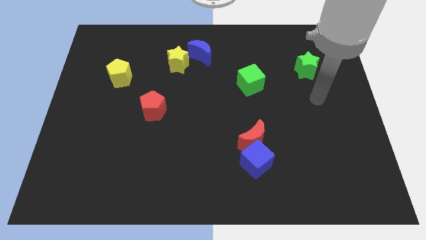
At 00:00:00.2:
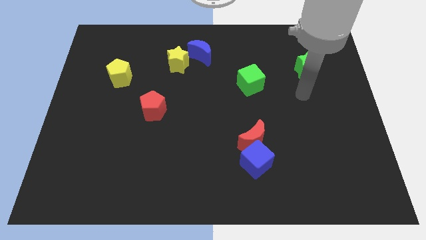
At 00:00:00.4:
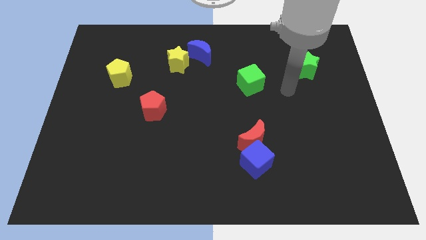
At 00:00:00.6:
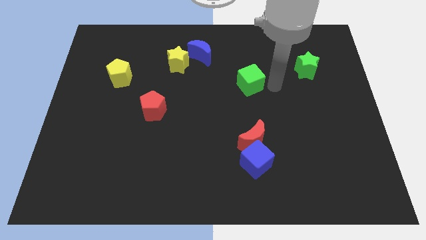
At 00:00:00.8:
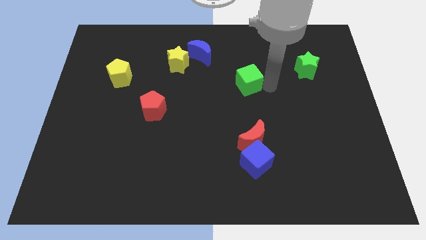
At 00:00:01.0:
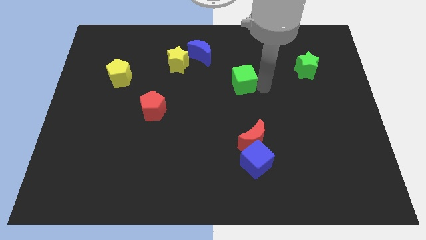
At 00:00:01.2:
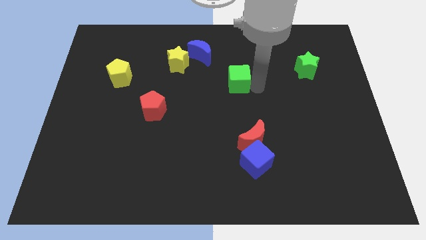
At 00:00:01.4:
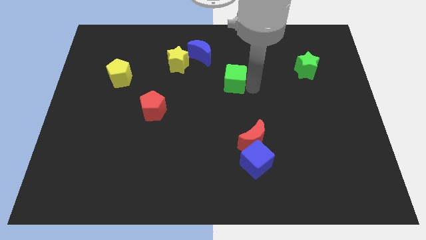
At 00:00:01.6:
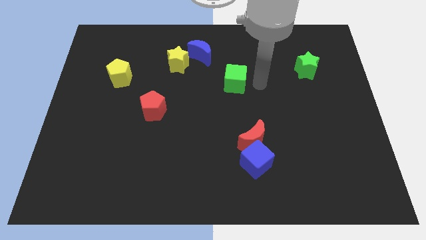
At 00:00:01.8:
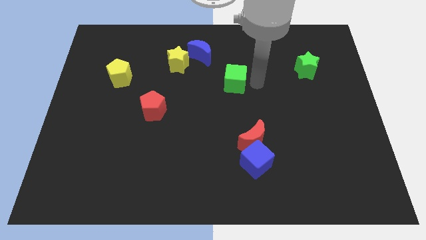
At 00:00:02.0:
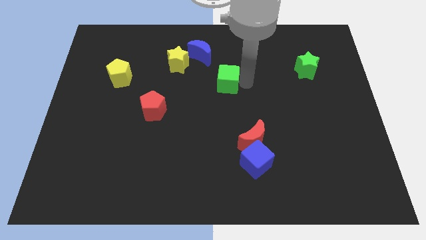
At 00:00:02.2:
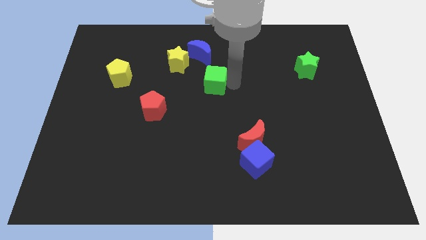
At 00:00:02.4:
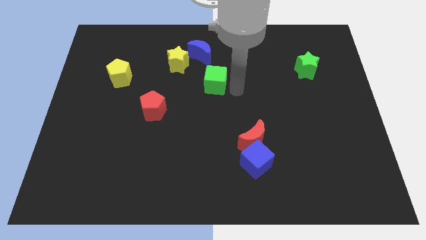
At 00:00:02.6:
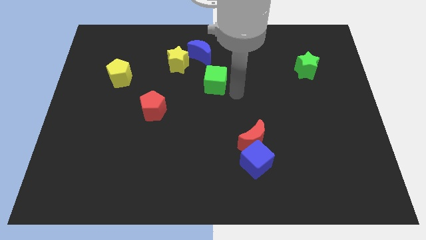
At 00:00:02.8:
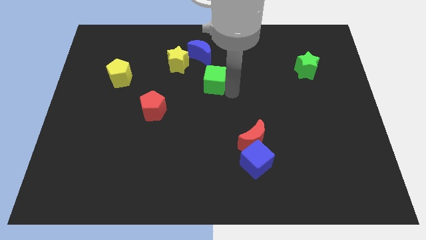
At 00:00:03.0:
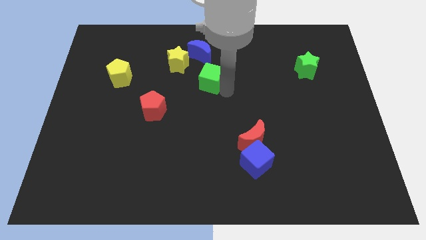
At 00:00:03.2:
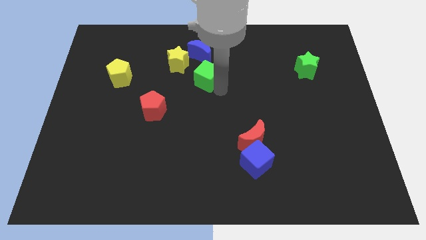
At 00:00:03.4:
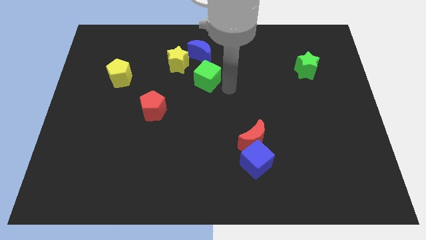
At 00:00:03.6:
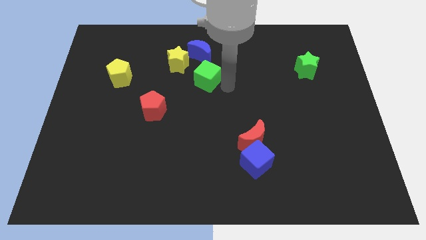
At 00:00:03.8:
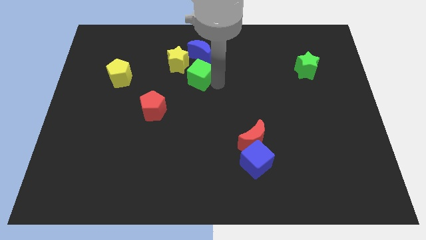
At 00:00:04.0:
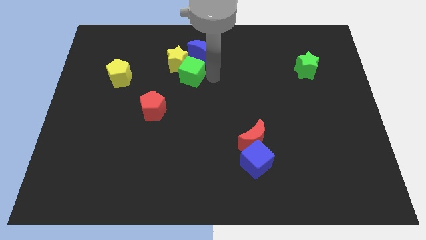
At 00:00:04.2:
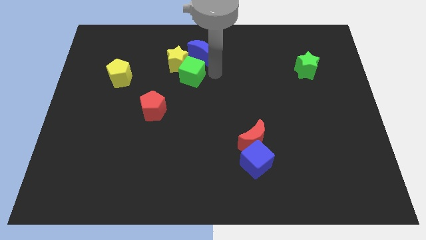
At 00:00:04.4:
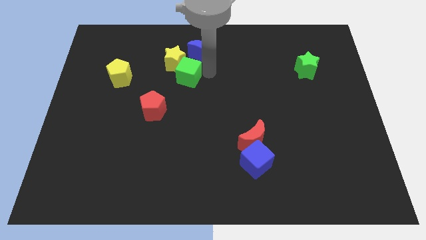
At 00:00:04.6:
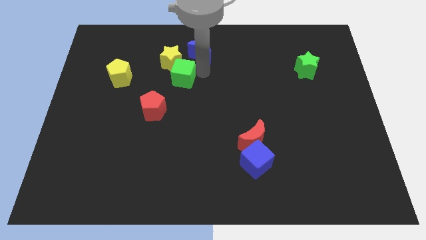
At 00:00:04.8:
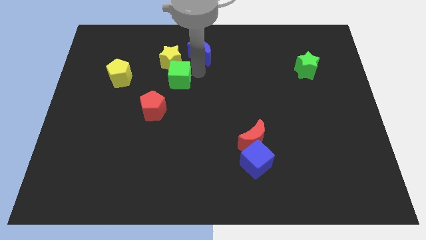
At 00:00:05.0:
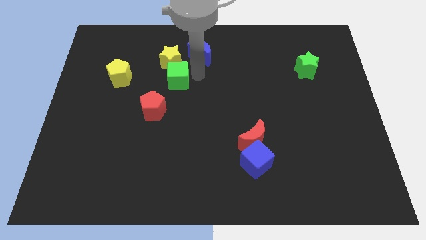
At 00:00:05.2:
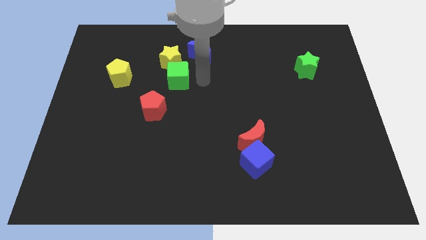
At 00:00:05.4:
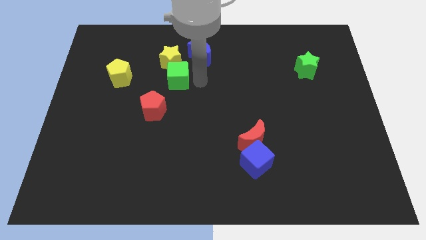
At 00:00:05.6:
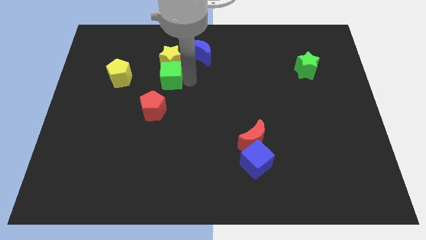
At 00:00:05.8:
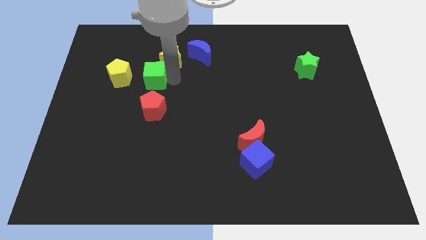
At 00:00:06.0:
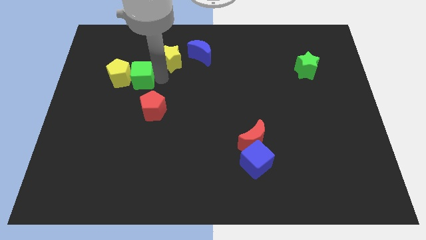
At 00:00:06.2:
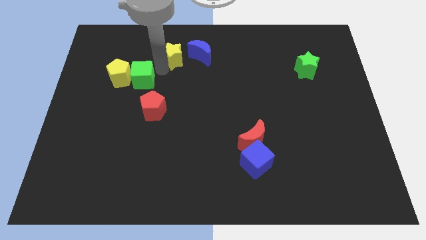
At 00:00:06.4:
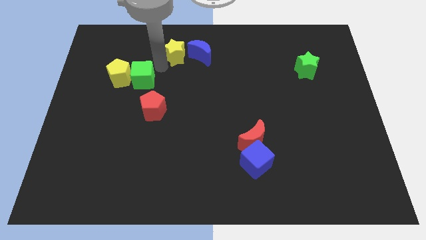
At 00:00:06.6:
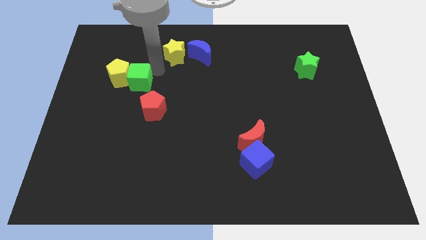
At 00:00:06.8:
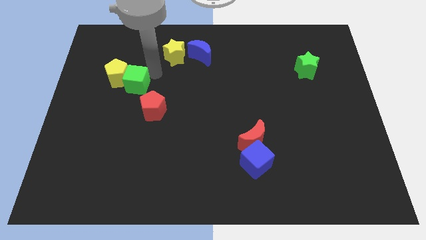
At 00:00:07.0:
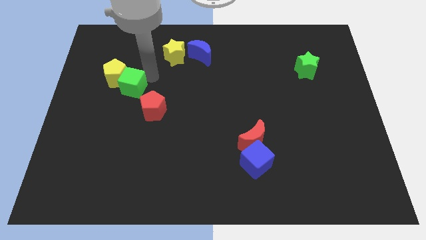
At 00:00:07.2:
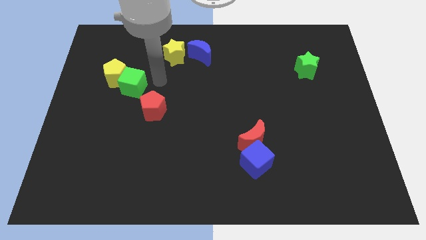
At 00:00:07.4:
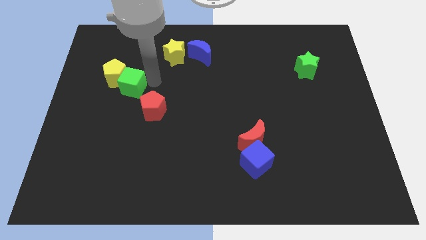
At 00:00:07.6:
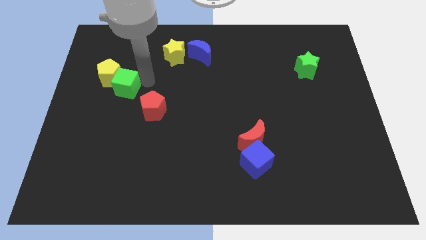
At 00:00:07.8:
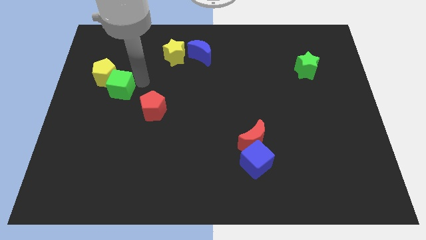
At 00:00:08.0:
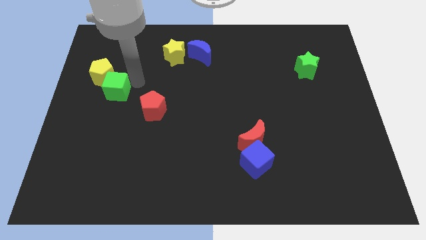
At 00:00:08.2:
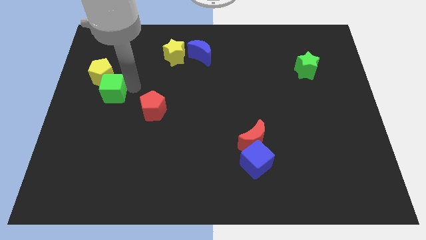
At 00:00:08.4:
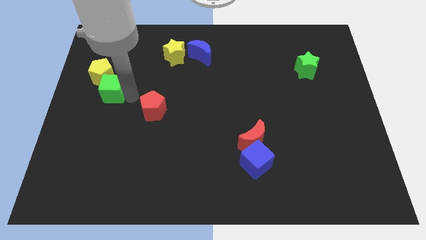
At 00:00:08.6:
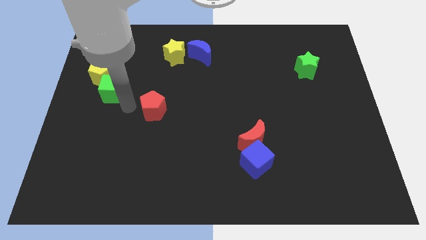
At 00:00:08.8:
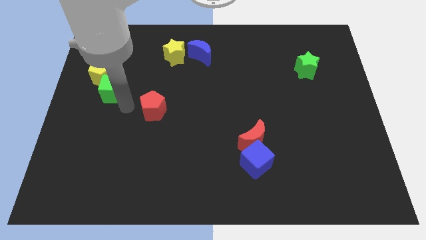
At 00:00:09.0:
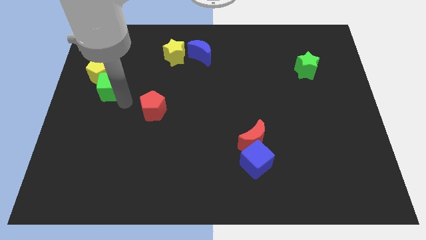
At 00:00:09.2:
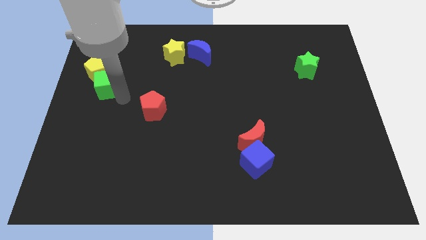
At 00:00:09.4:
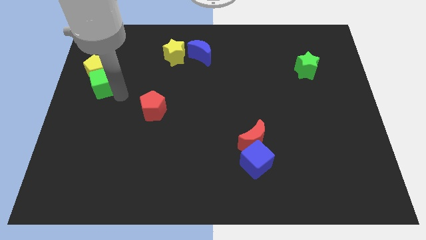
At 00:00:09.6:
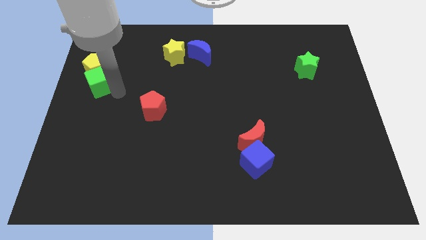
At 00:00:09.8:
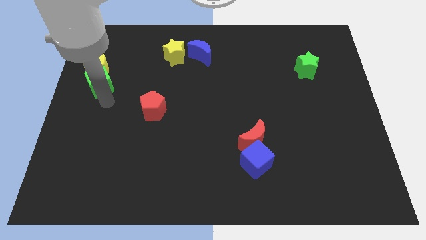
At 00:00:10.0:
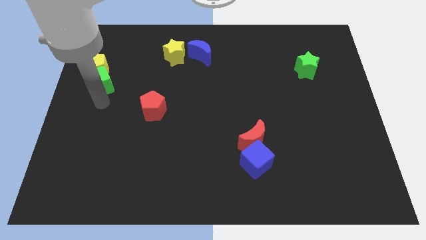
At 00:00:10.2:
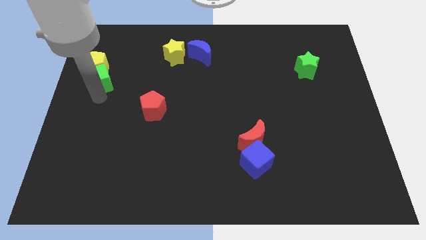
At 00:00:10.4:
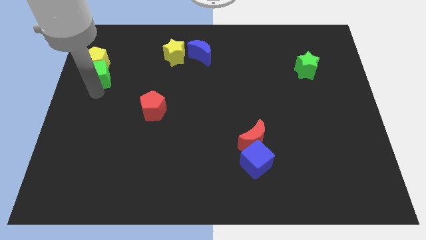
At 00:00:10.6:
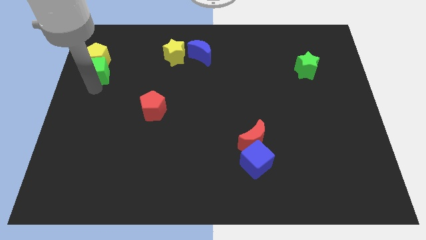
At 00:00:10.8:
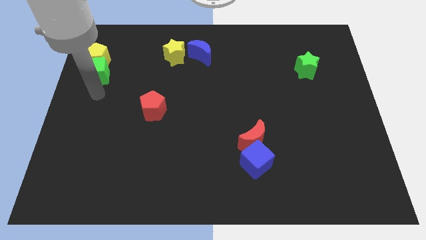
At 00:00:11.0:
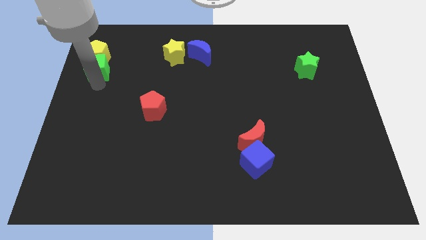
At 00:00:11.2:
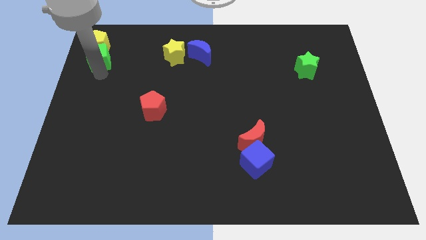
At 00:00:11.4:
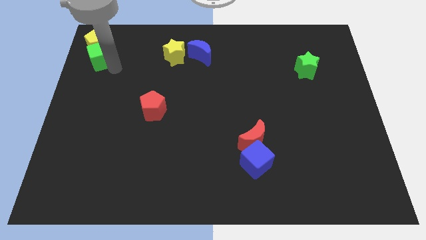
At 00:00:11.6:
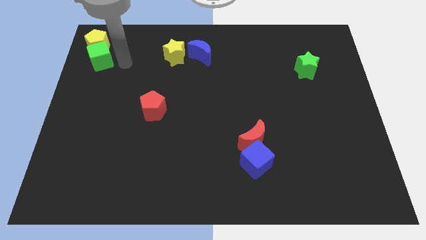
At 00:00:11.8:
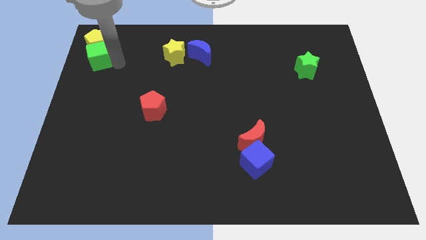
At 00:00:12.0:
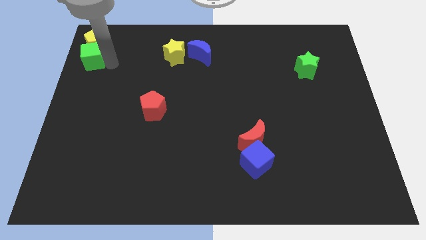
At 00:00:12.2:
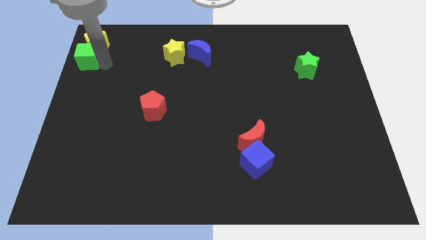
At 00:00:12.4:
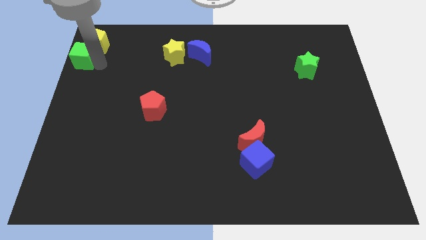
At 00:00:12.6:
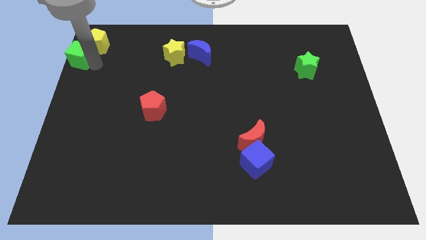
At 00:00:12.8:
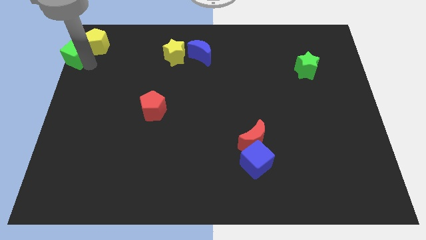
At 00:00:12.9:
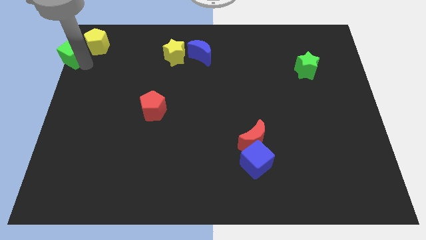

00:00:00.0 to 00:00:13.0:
move the green cube to the top left of the board
